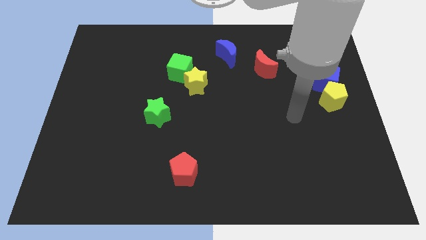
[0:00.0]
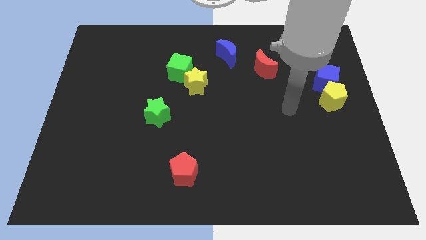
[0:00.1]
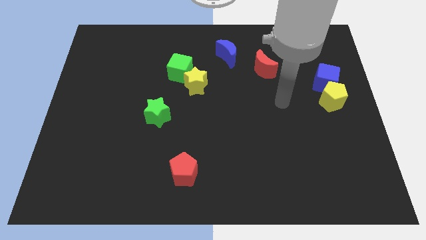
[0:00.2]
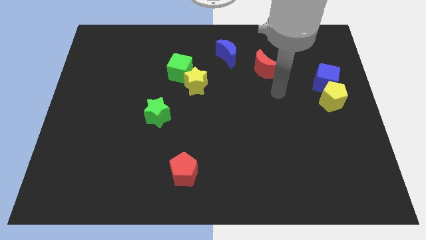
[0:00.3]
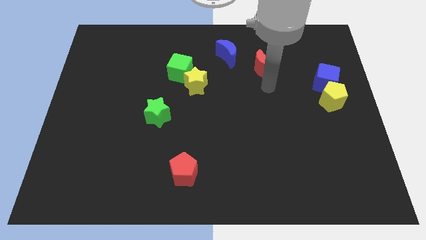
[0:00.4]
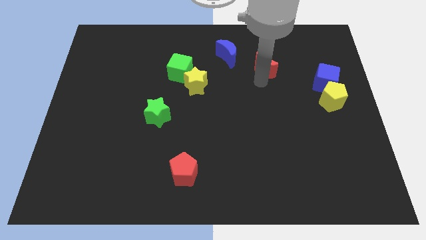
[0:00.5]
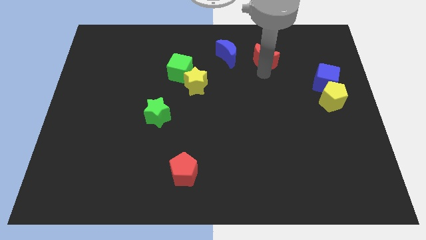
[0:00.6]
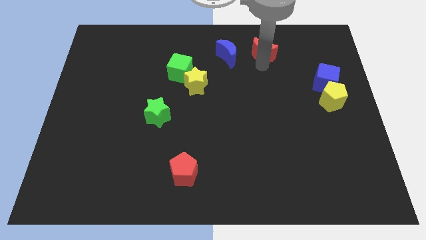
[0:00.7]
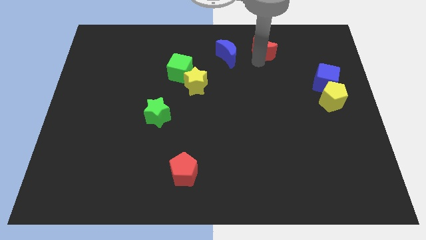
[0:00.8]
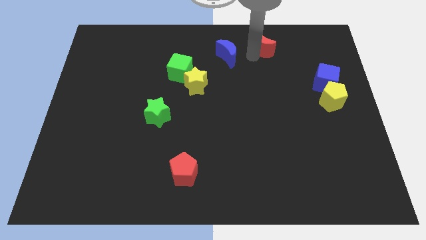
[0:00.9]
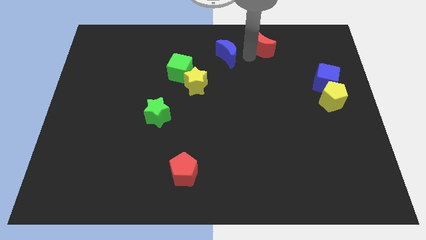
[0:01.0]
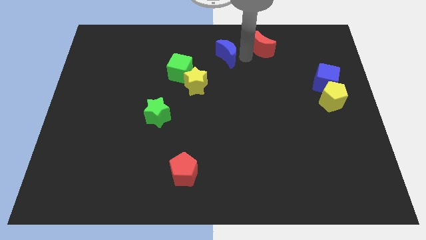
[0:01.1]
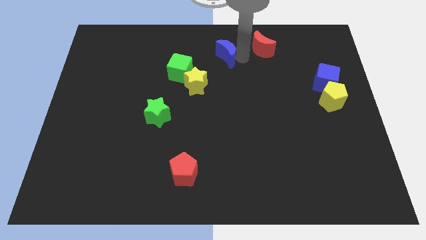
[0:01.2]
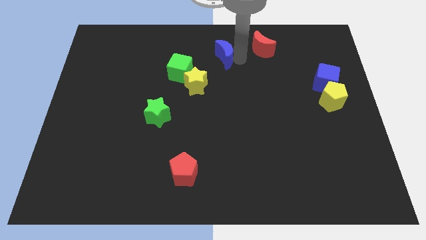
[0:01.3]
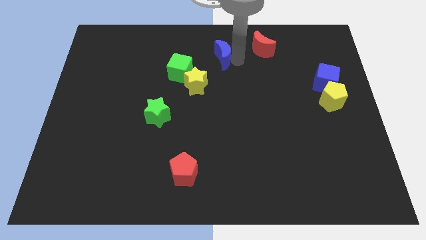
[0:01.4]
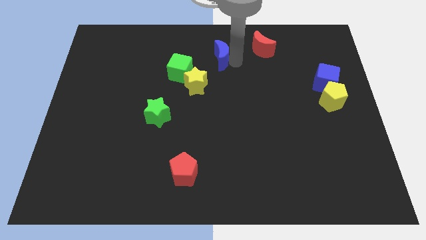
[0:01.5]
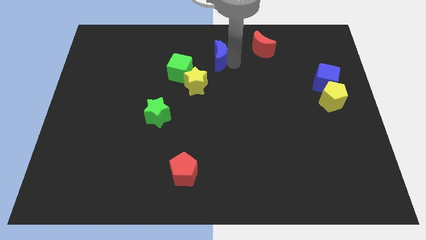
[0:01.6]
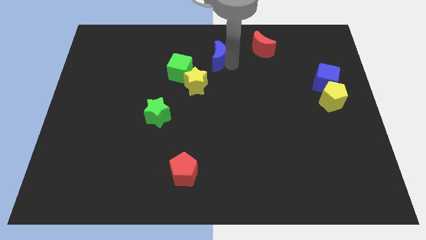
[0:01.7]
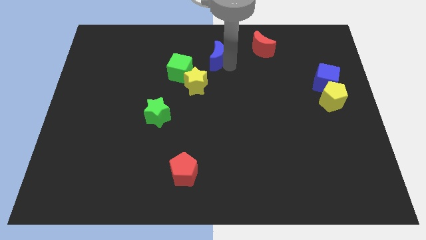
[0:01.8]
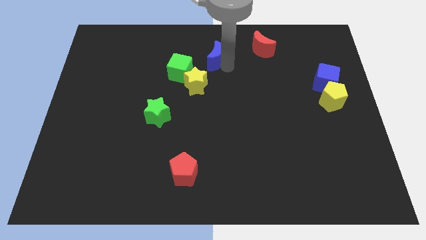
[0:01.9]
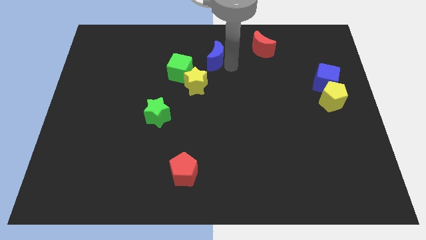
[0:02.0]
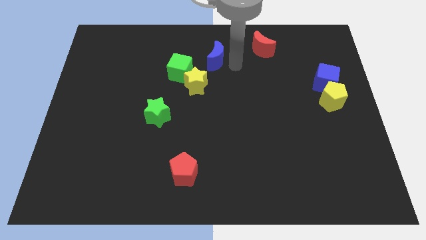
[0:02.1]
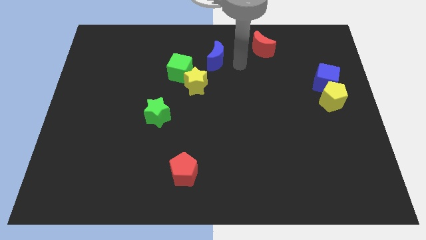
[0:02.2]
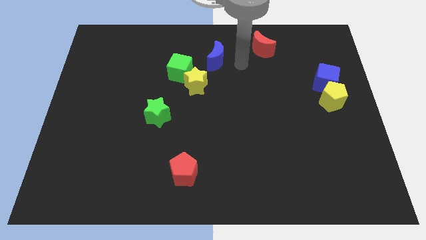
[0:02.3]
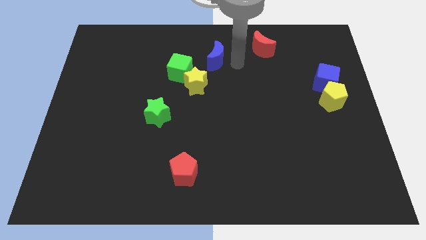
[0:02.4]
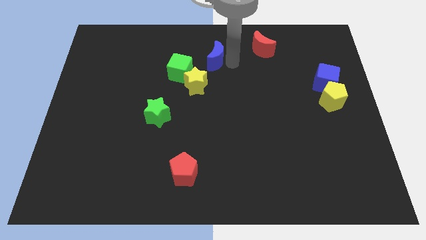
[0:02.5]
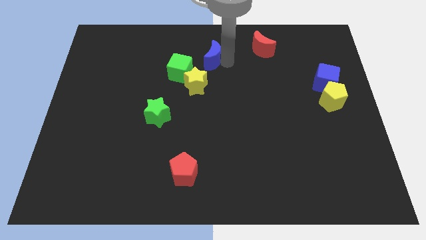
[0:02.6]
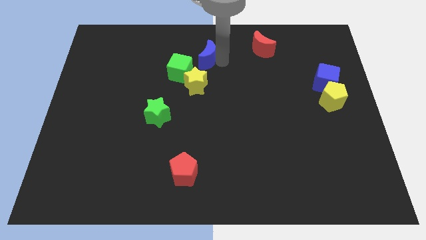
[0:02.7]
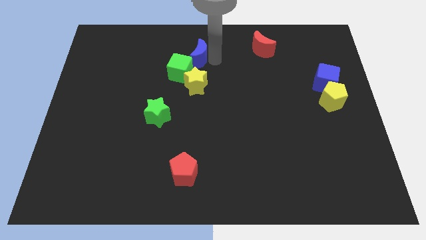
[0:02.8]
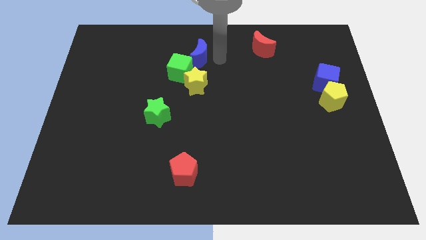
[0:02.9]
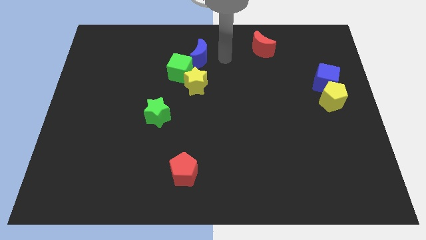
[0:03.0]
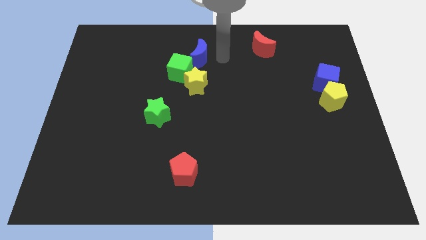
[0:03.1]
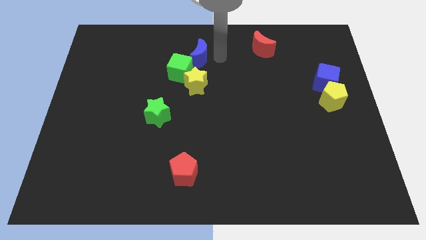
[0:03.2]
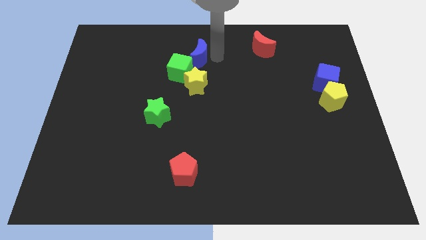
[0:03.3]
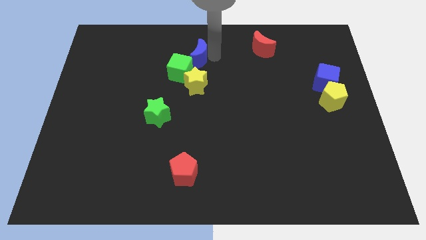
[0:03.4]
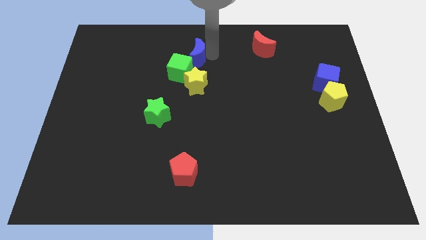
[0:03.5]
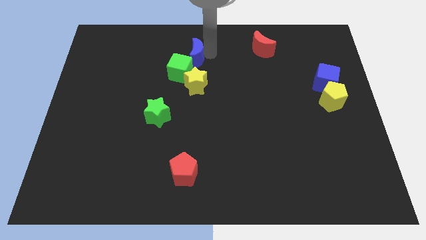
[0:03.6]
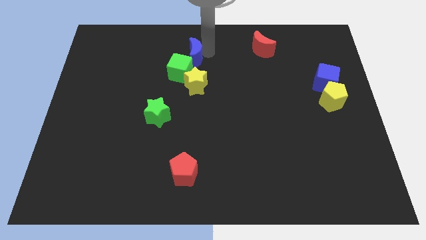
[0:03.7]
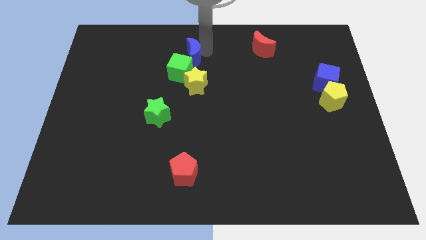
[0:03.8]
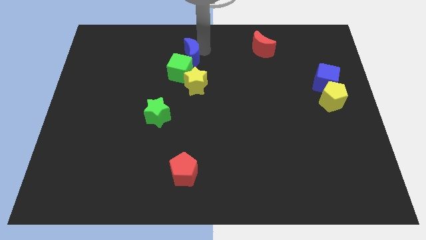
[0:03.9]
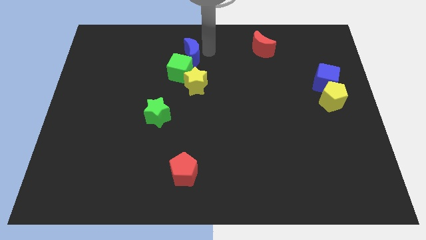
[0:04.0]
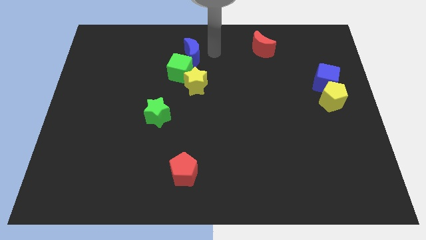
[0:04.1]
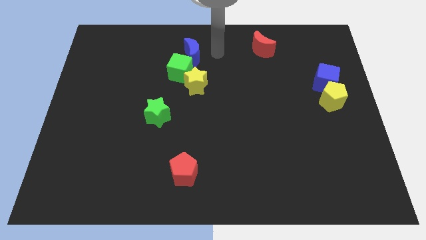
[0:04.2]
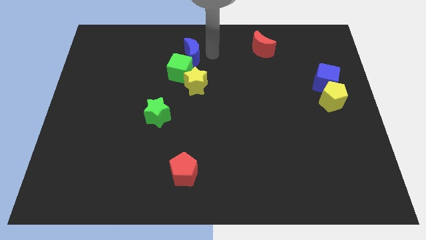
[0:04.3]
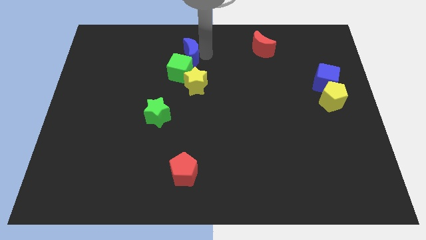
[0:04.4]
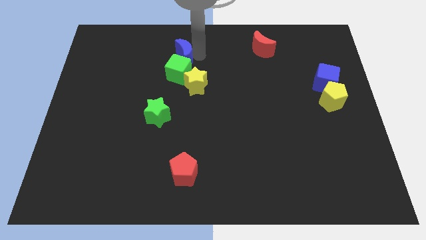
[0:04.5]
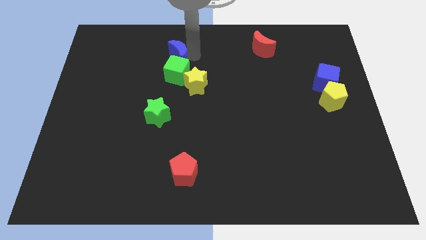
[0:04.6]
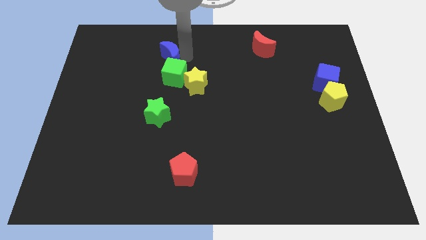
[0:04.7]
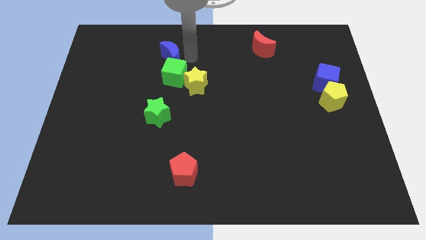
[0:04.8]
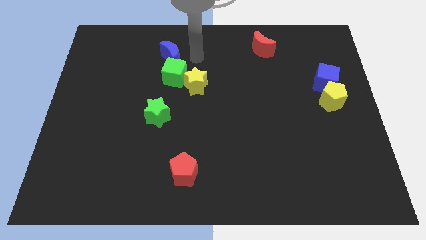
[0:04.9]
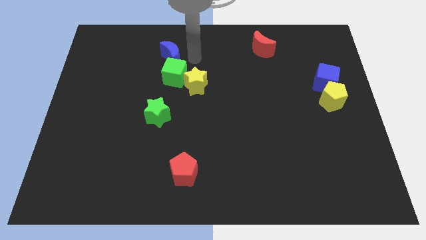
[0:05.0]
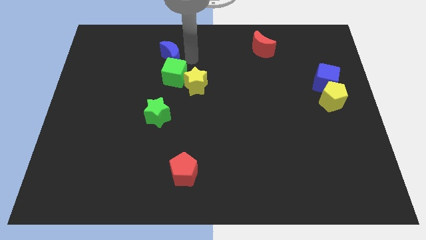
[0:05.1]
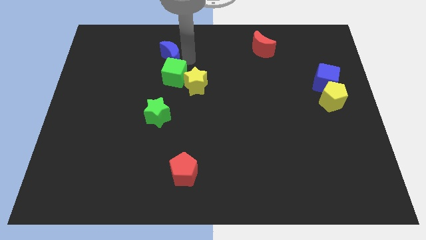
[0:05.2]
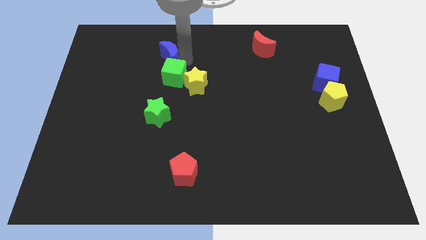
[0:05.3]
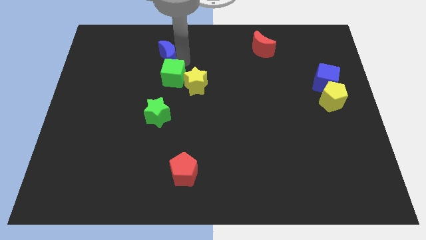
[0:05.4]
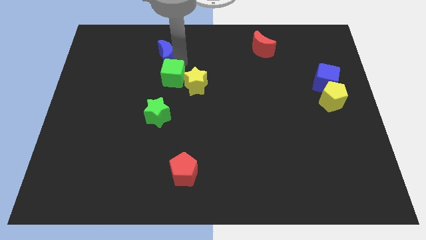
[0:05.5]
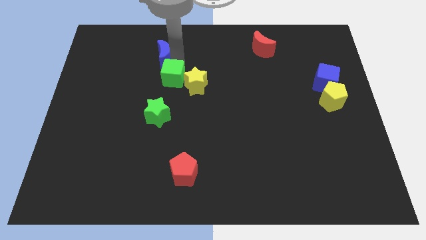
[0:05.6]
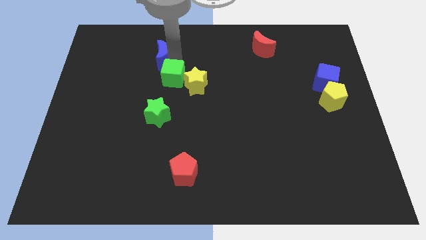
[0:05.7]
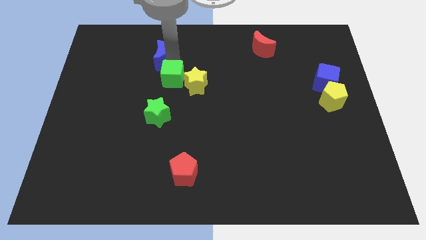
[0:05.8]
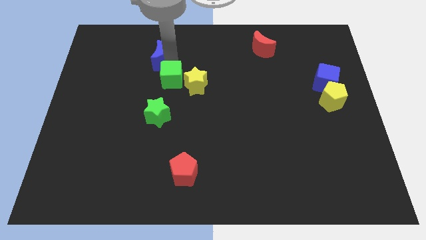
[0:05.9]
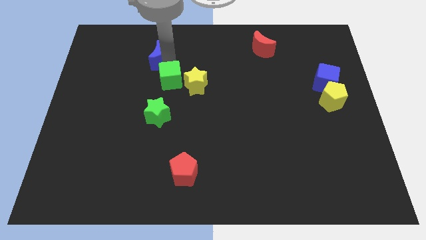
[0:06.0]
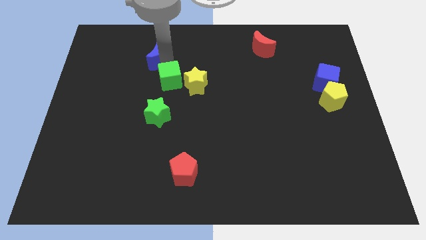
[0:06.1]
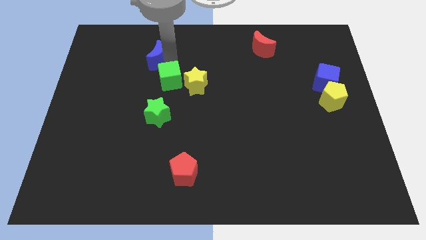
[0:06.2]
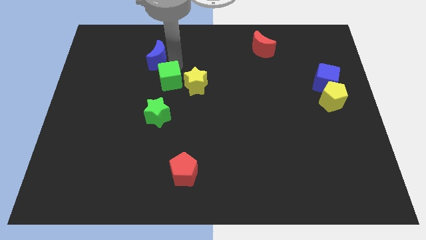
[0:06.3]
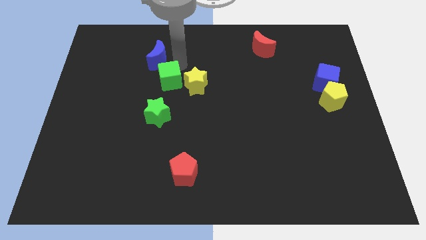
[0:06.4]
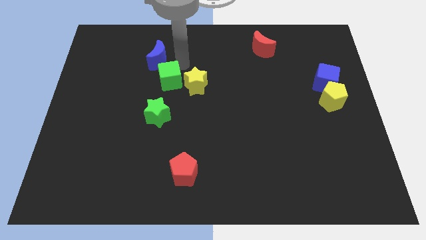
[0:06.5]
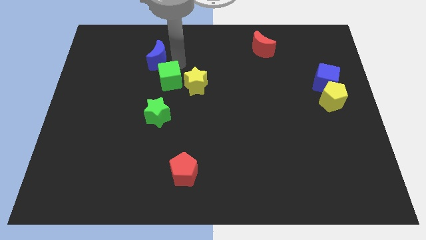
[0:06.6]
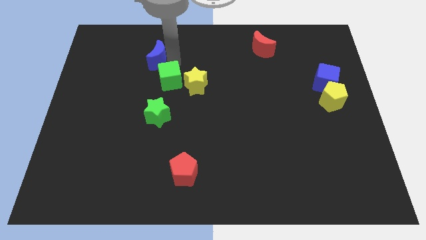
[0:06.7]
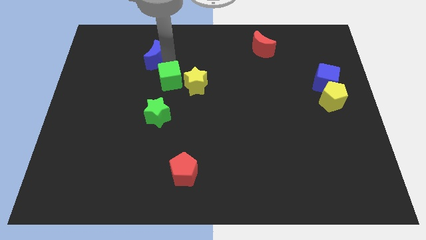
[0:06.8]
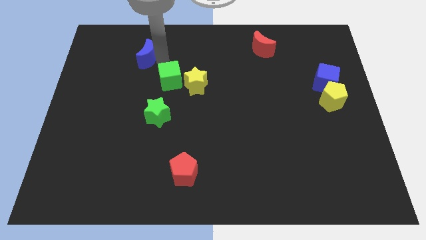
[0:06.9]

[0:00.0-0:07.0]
move the blue moon left

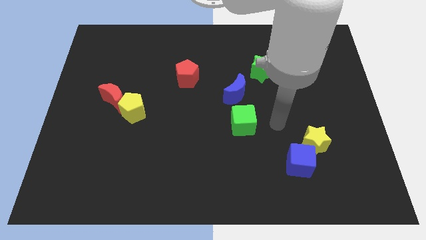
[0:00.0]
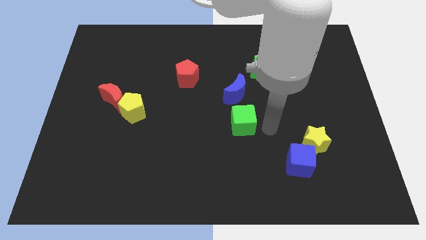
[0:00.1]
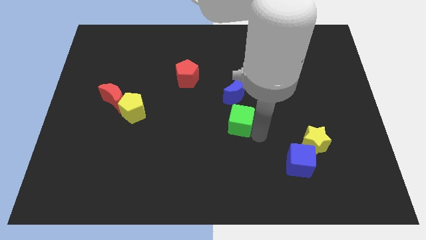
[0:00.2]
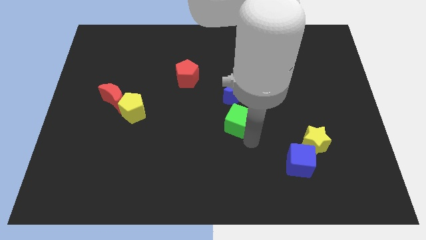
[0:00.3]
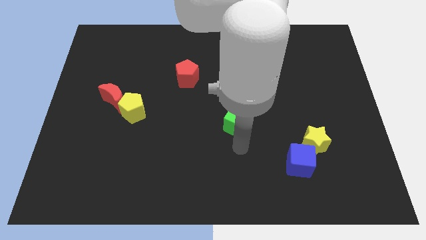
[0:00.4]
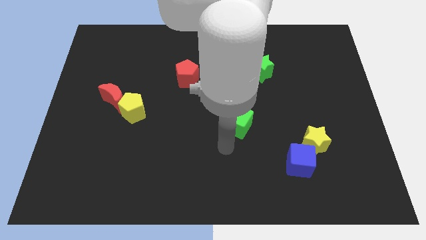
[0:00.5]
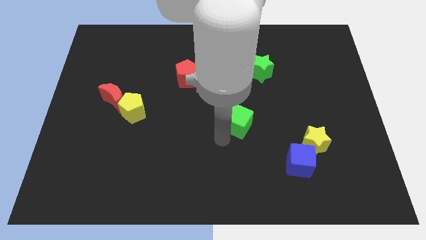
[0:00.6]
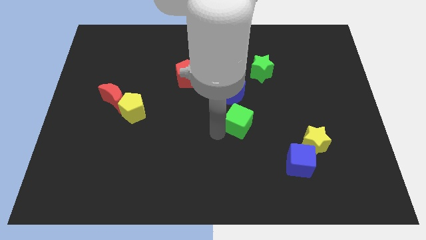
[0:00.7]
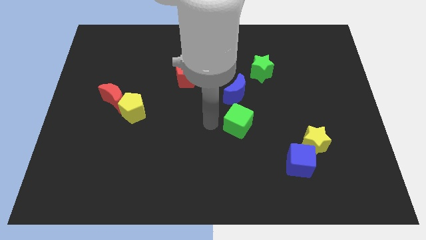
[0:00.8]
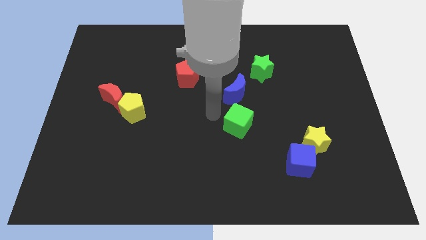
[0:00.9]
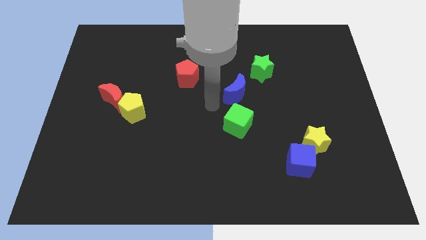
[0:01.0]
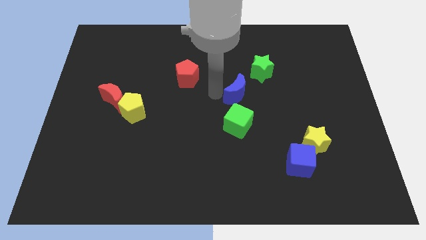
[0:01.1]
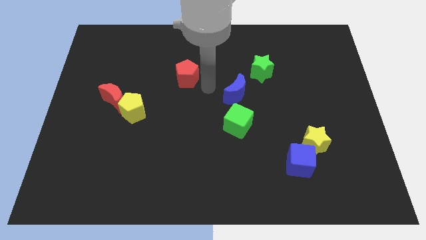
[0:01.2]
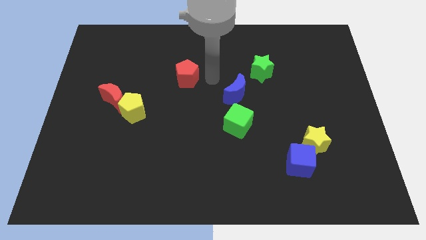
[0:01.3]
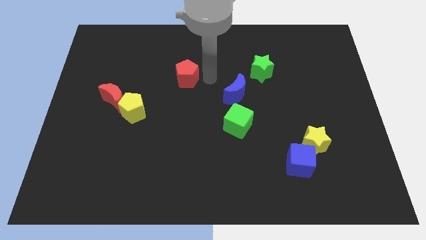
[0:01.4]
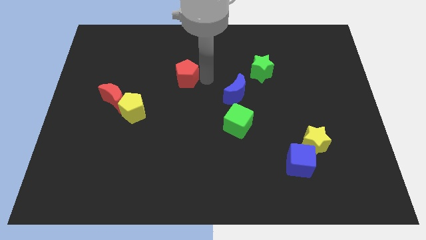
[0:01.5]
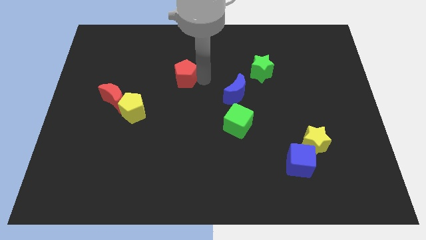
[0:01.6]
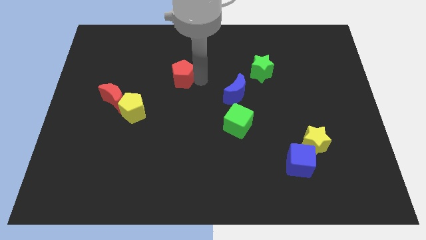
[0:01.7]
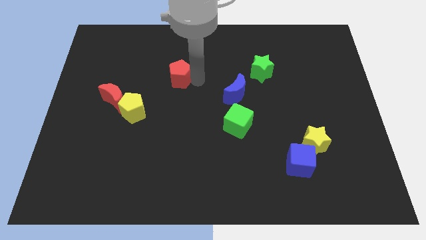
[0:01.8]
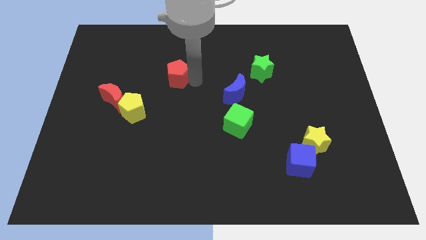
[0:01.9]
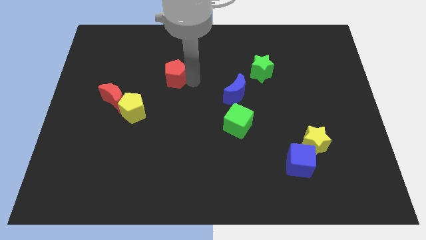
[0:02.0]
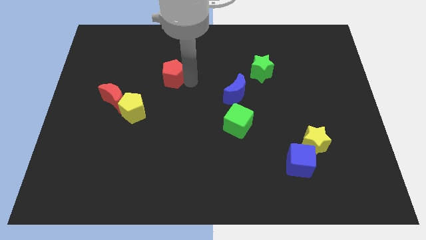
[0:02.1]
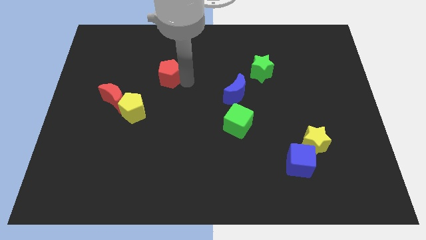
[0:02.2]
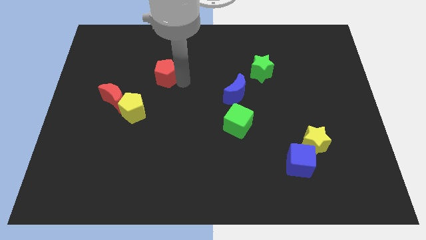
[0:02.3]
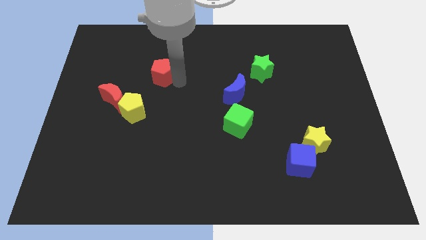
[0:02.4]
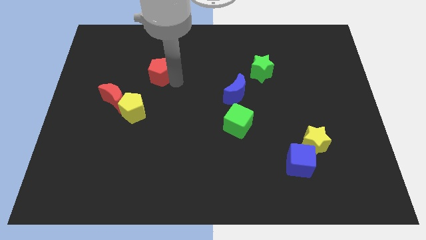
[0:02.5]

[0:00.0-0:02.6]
slightly move the red pentagon to the left
